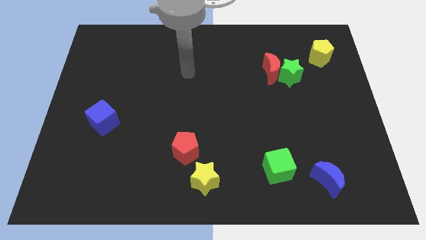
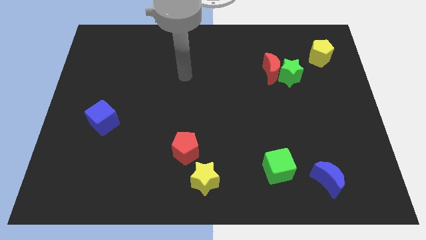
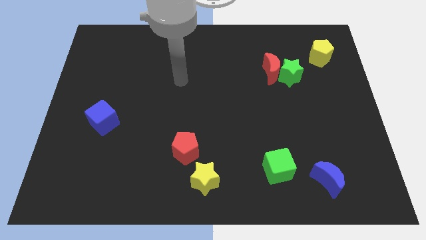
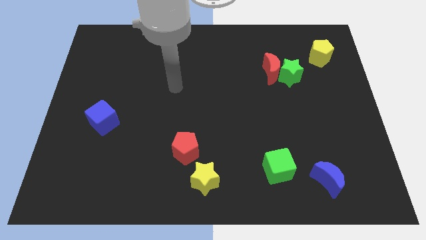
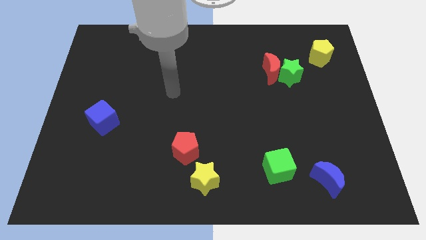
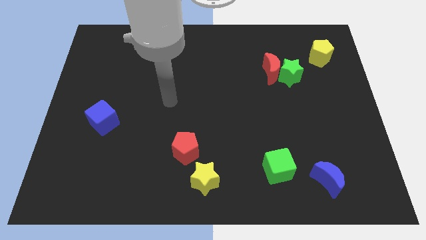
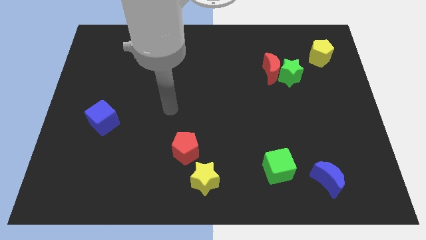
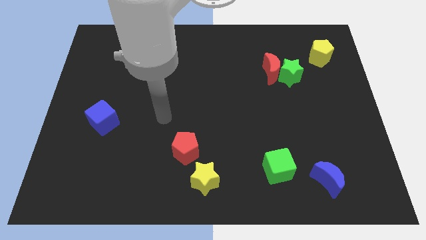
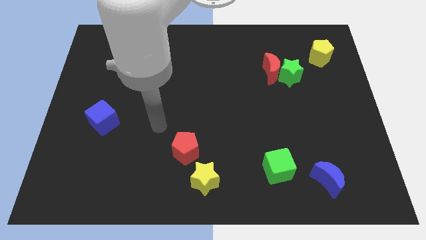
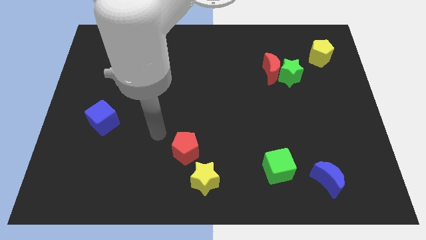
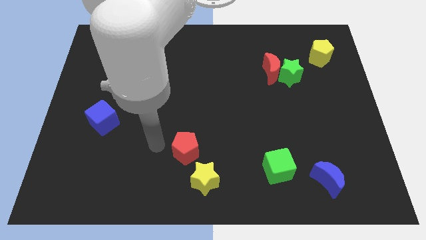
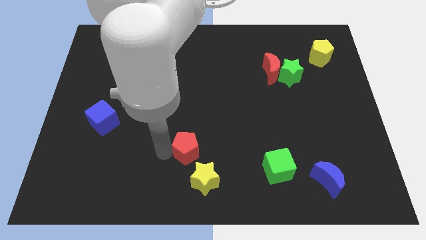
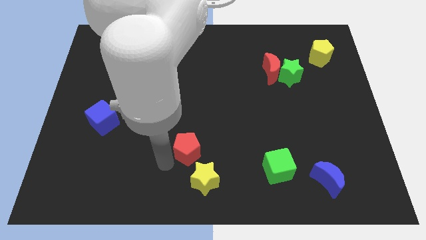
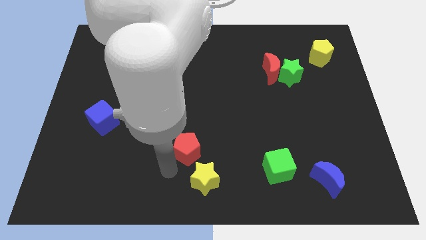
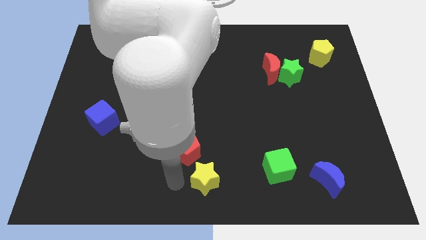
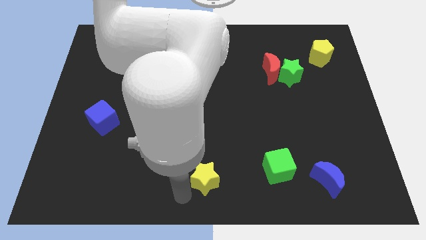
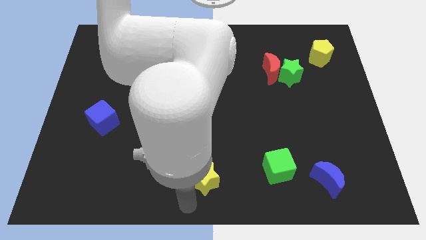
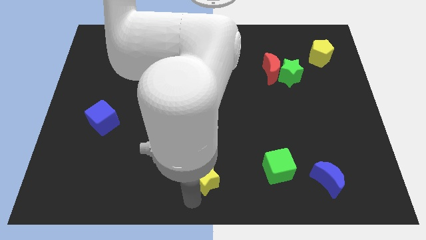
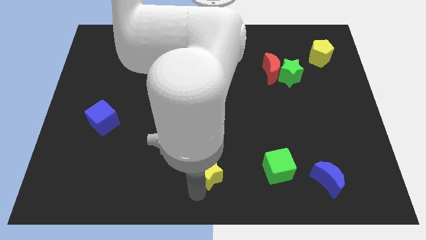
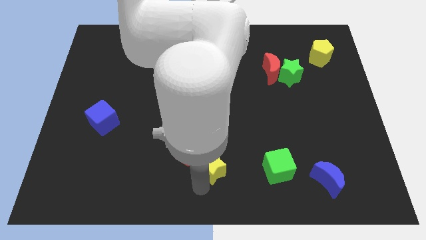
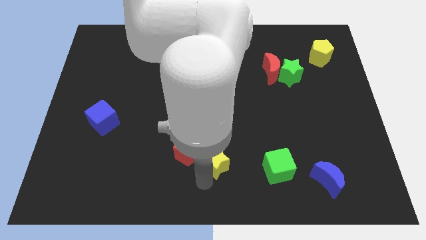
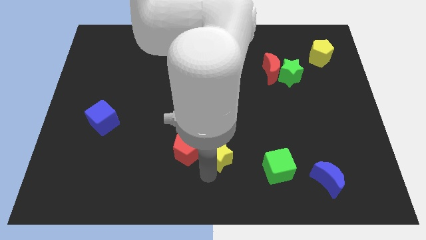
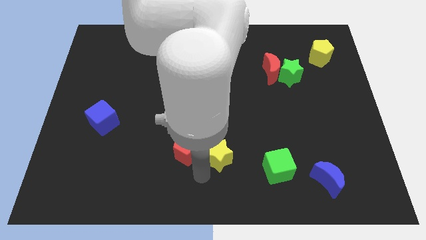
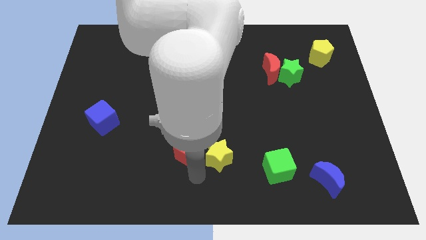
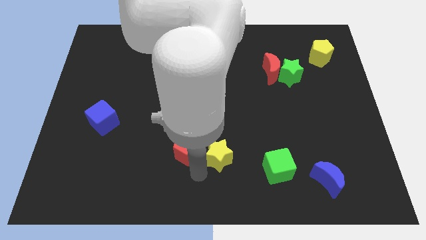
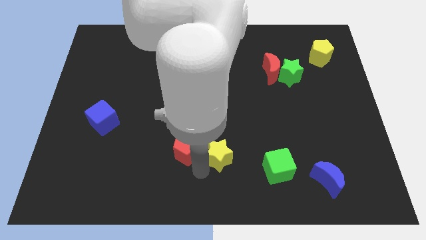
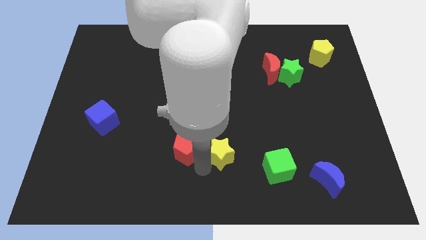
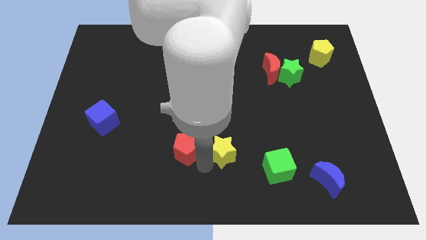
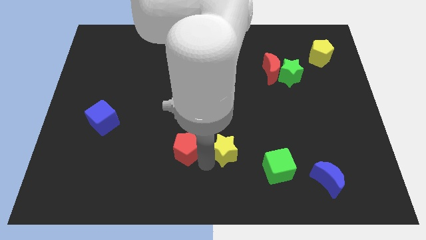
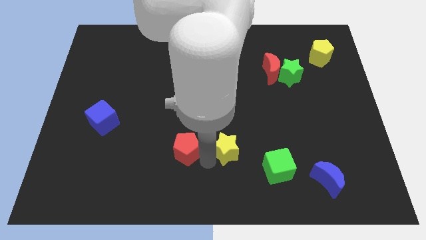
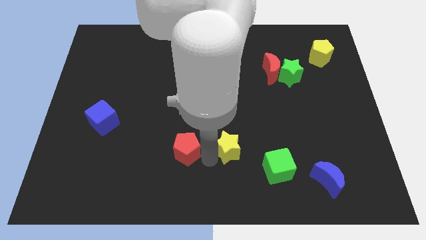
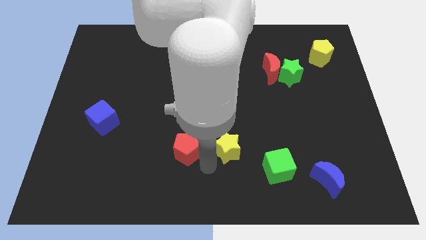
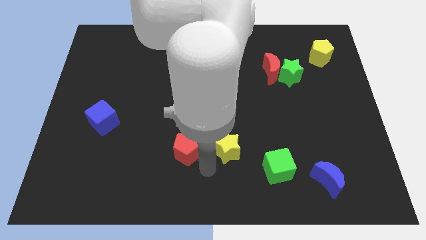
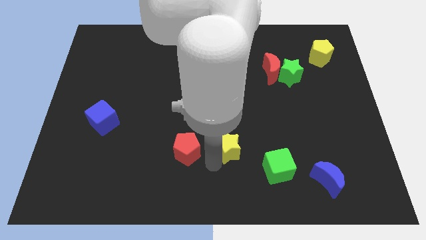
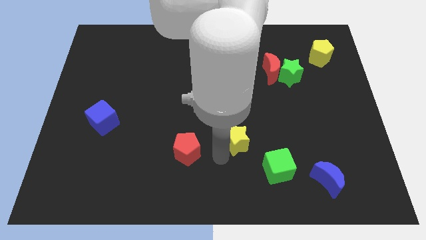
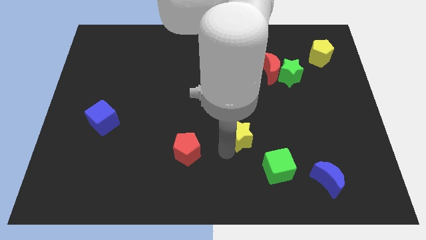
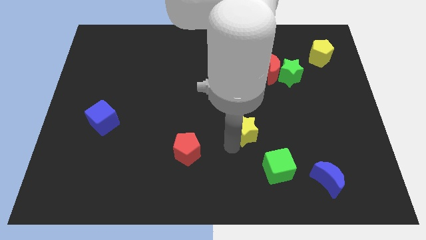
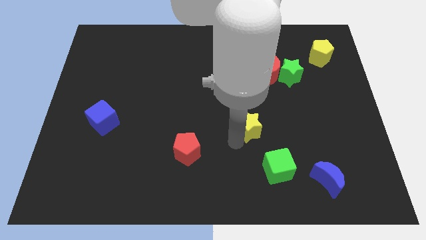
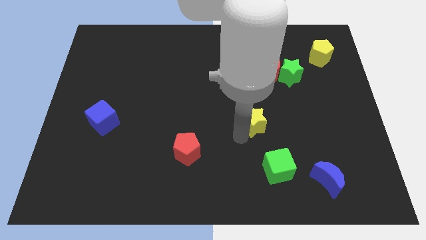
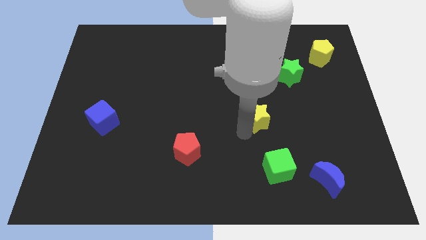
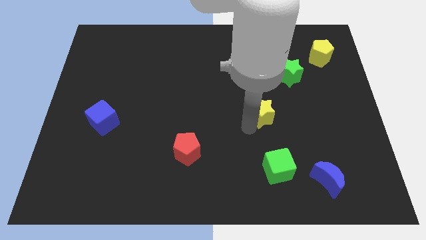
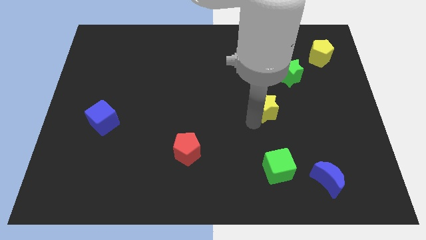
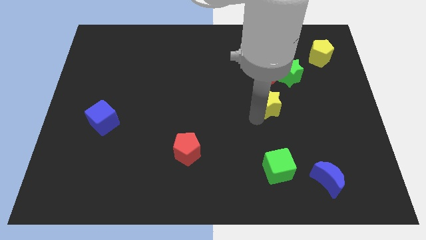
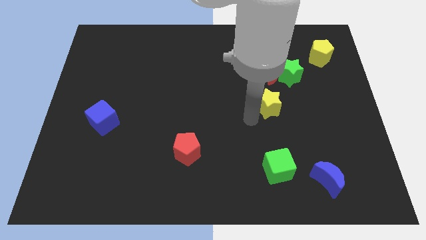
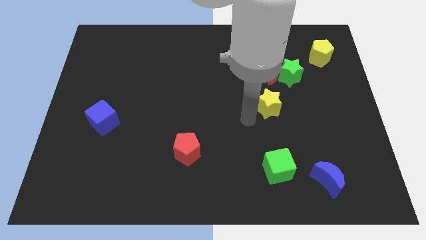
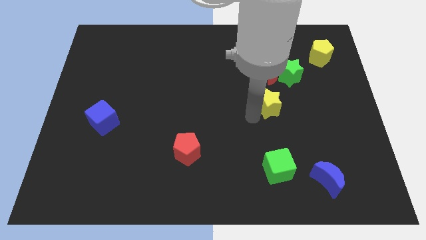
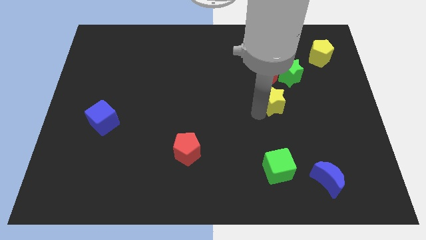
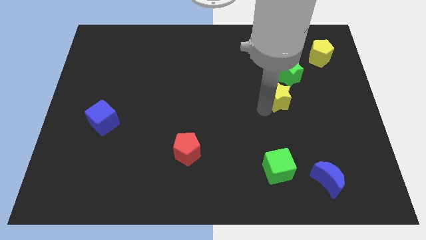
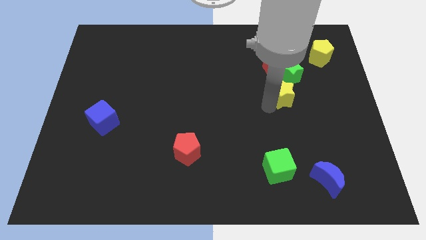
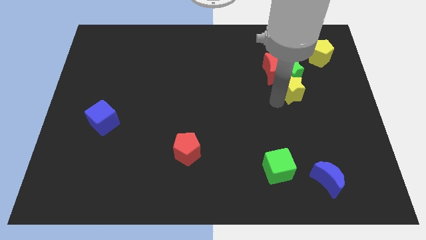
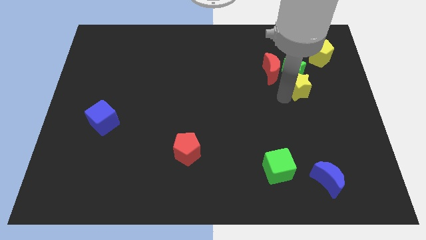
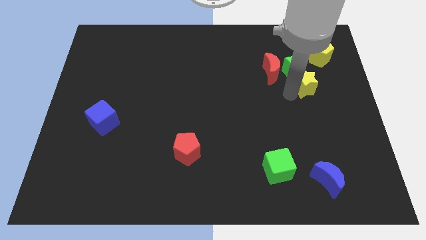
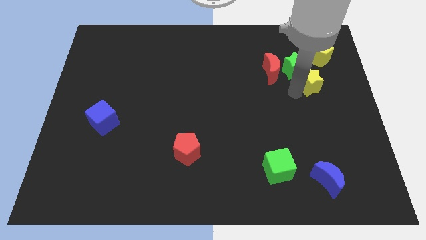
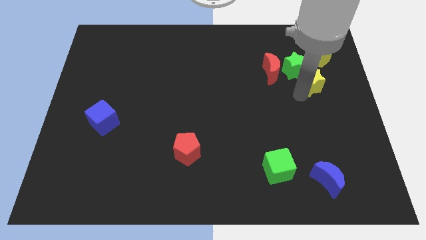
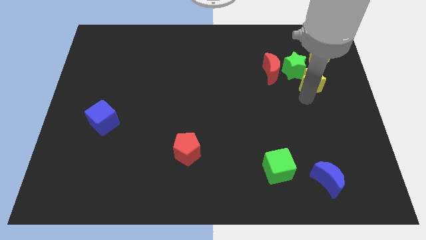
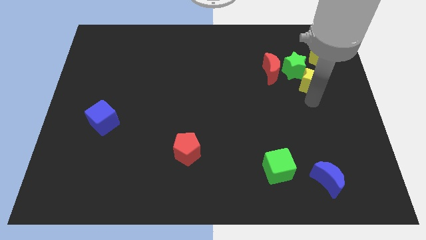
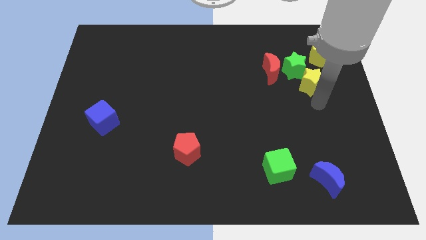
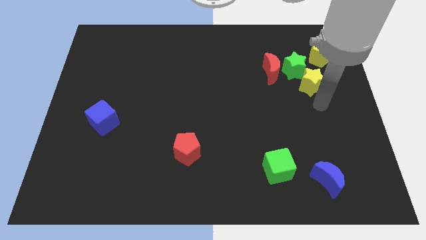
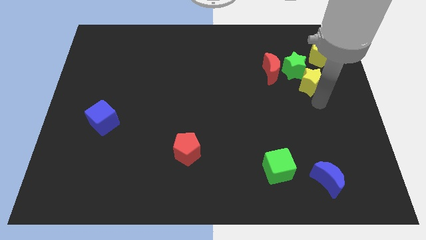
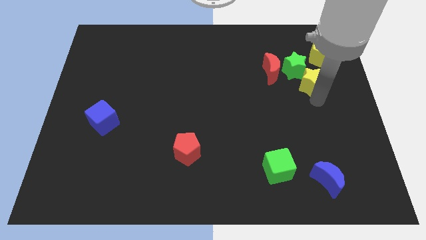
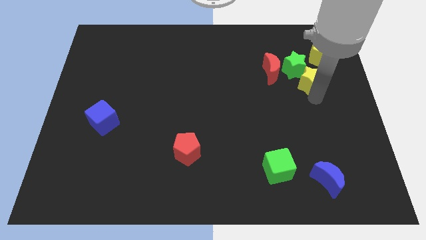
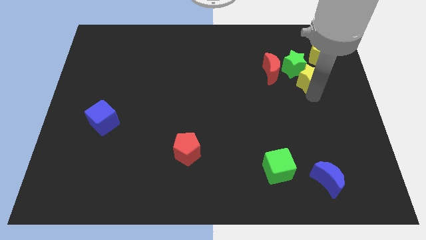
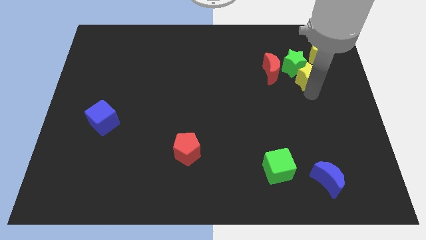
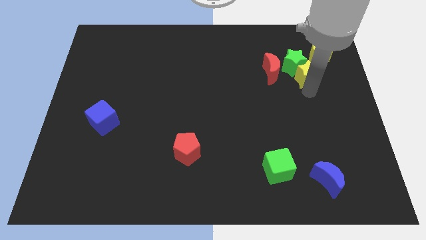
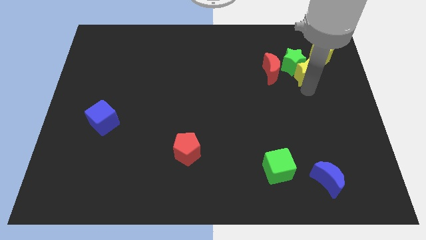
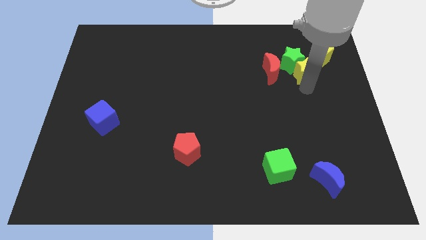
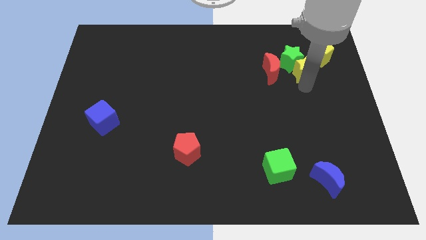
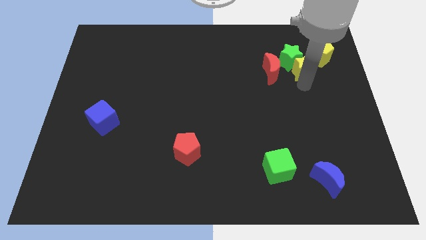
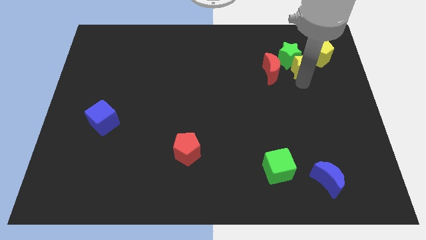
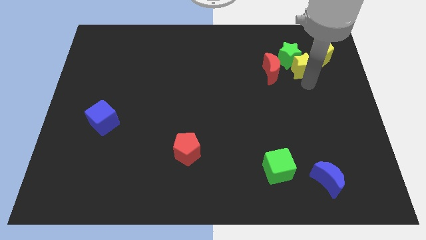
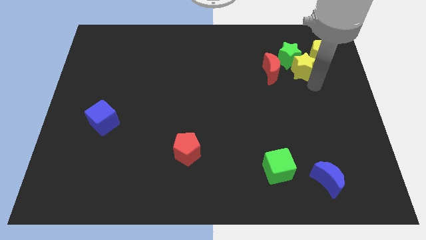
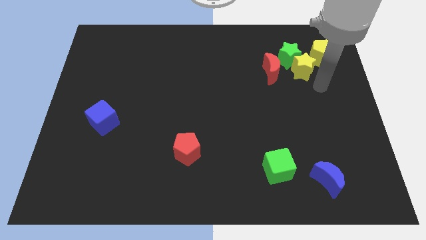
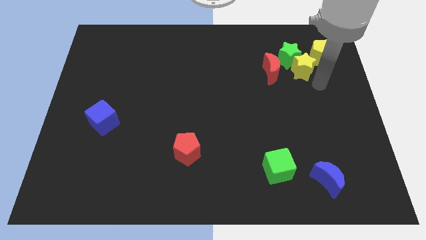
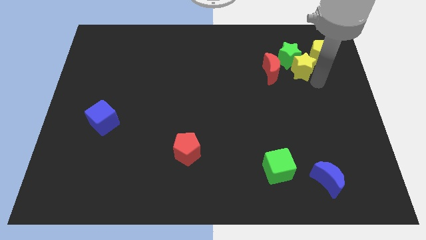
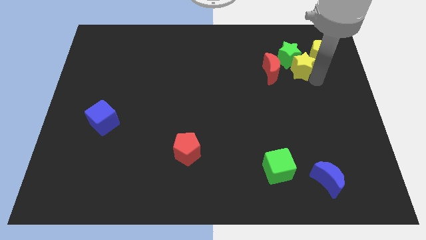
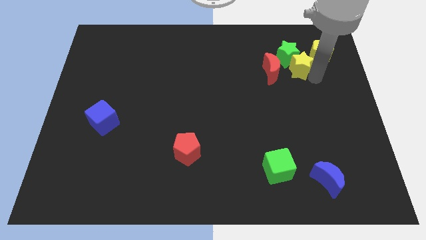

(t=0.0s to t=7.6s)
move the yellow star to the top right side of the red moon
